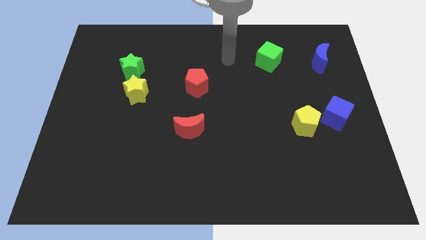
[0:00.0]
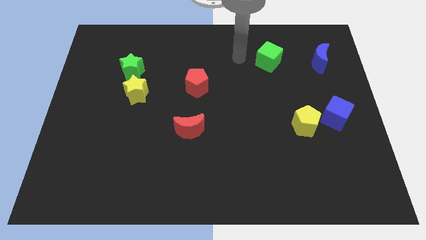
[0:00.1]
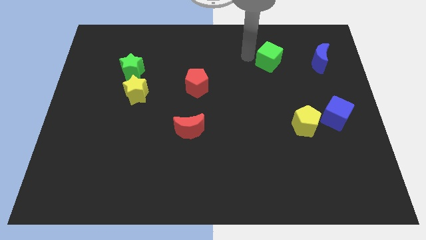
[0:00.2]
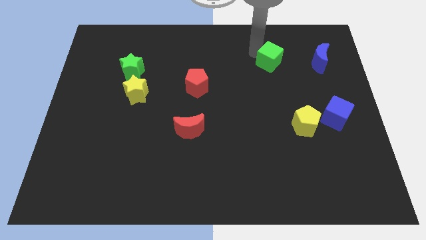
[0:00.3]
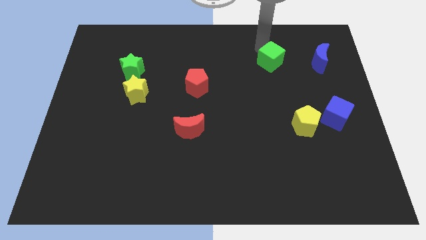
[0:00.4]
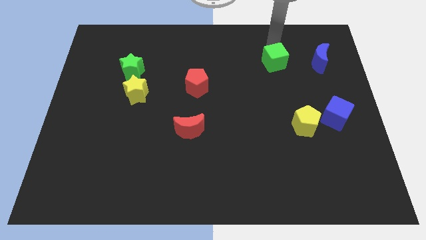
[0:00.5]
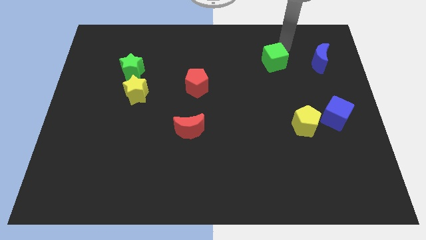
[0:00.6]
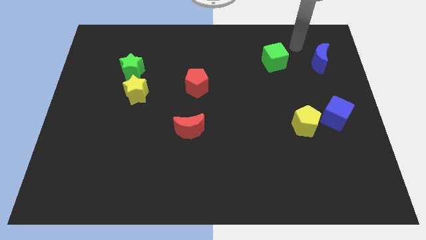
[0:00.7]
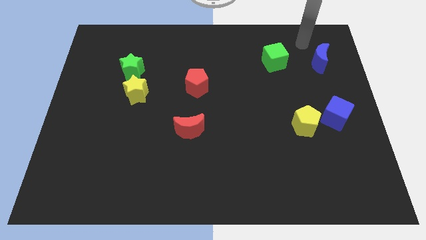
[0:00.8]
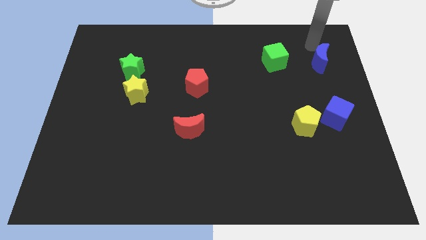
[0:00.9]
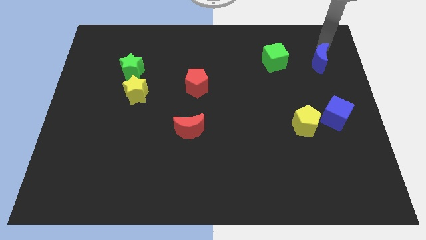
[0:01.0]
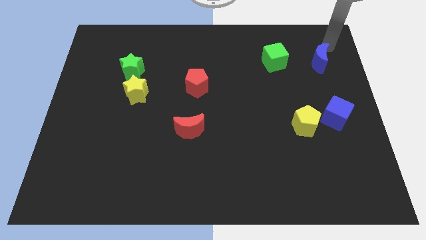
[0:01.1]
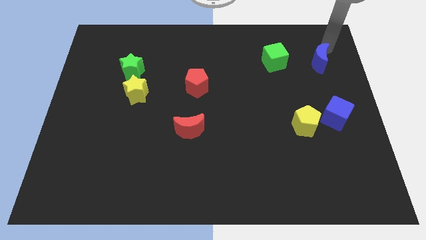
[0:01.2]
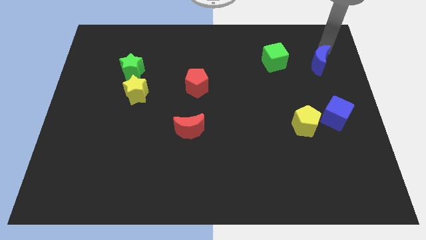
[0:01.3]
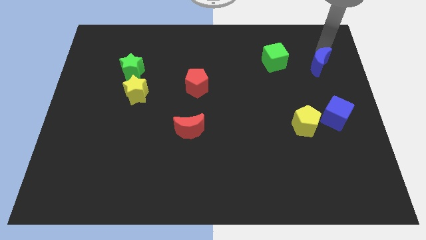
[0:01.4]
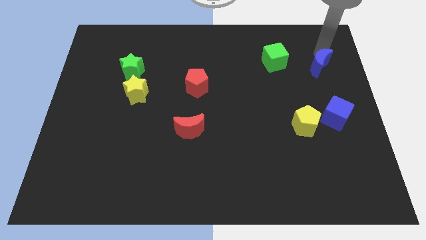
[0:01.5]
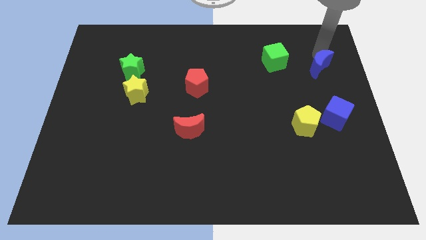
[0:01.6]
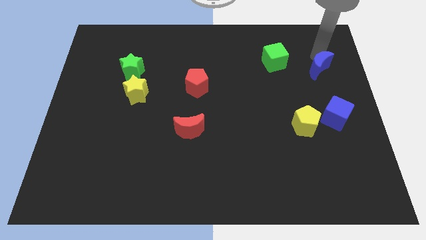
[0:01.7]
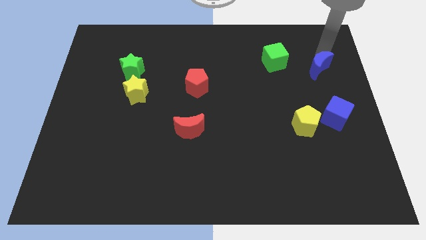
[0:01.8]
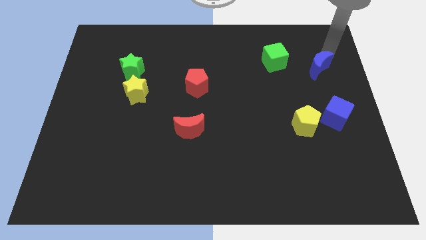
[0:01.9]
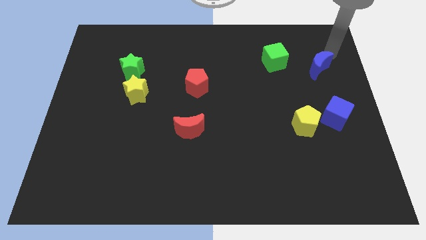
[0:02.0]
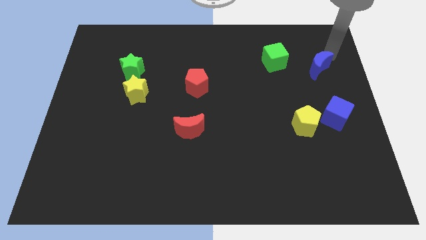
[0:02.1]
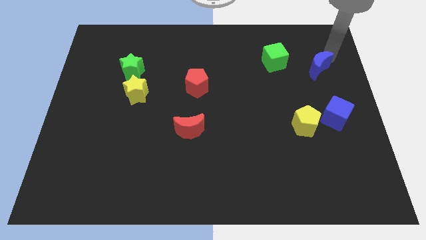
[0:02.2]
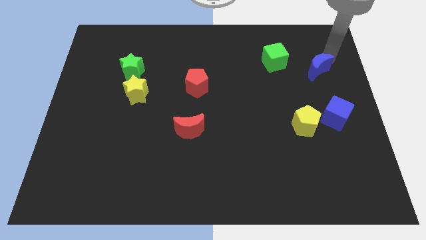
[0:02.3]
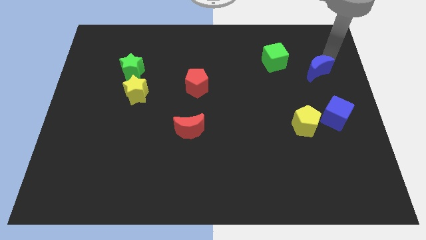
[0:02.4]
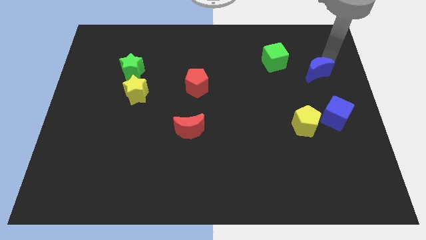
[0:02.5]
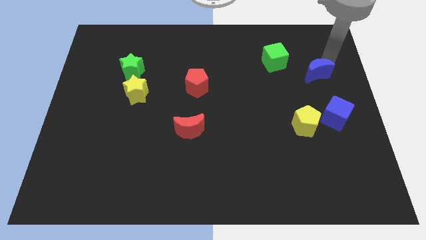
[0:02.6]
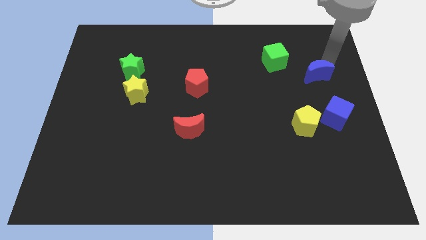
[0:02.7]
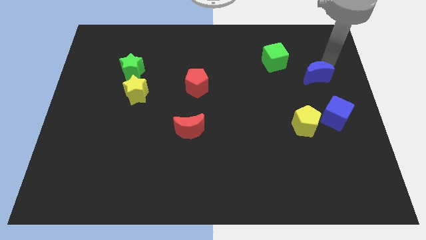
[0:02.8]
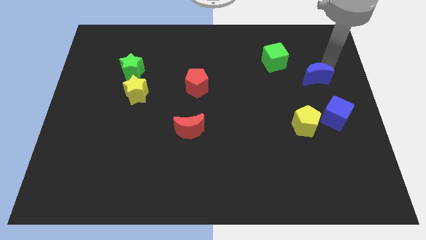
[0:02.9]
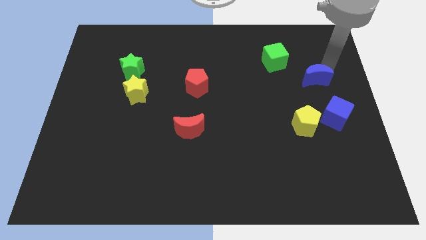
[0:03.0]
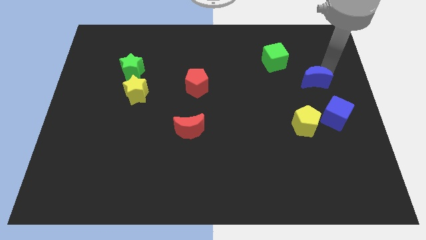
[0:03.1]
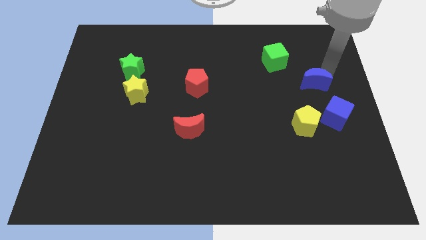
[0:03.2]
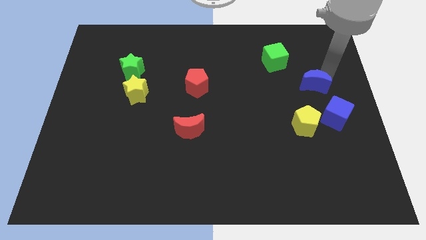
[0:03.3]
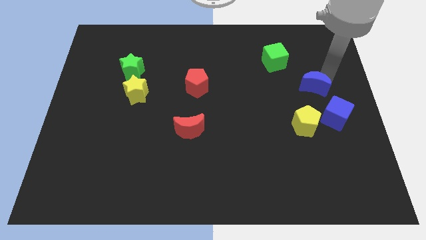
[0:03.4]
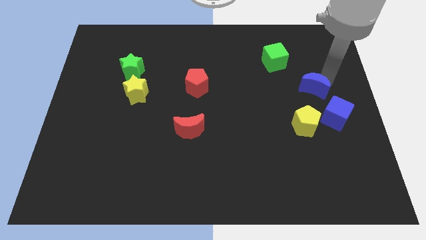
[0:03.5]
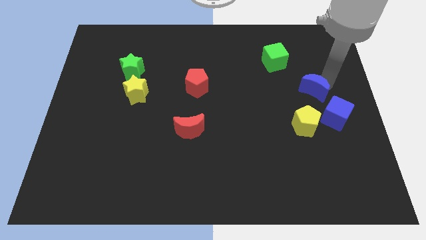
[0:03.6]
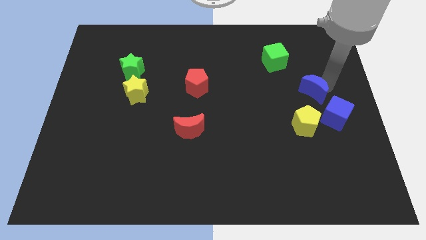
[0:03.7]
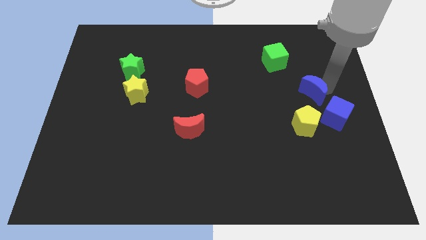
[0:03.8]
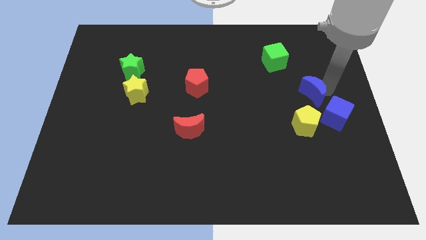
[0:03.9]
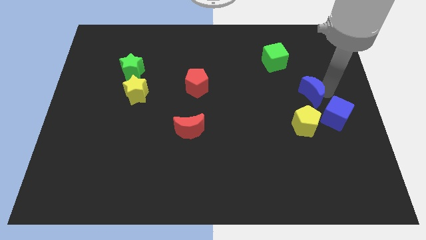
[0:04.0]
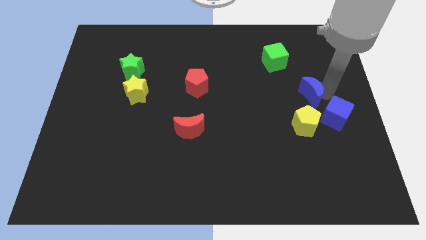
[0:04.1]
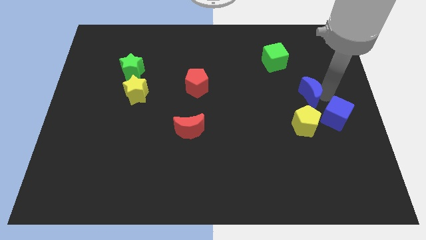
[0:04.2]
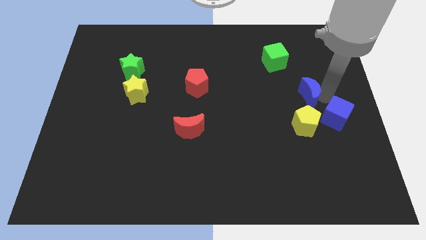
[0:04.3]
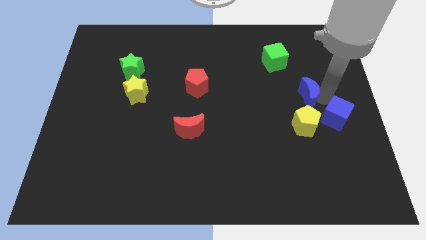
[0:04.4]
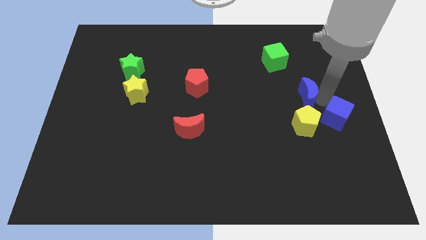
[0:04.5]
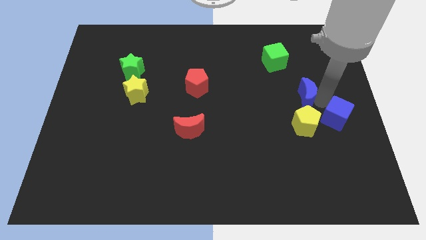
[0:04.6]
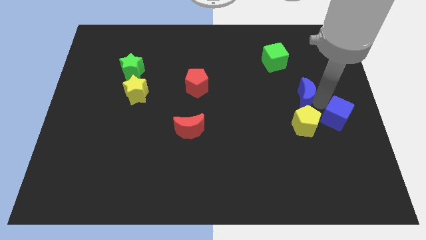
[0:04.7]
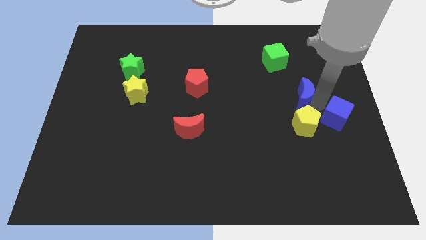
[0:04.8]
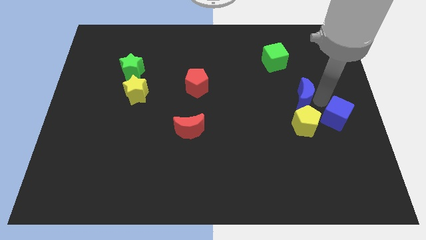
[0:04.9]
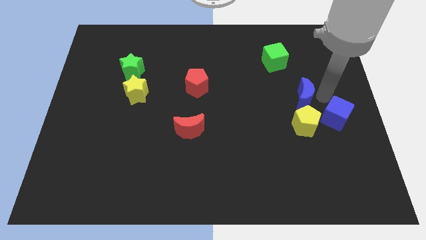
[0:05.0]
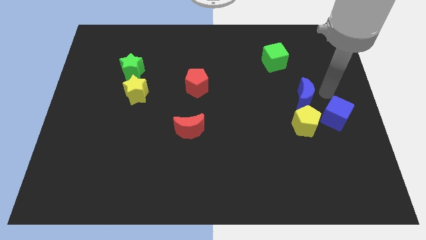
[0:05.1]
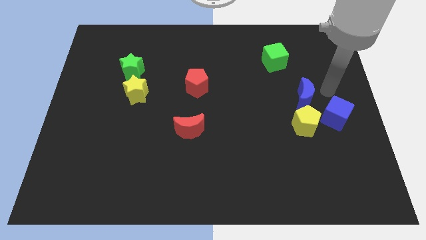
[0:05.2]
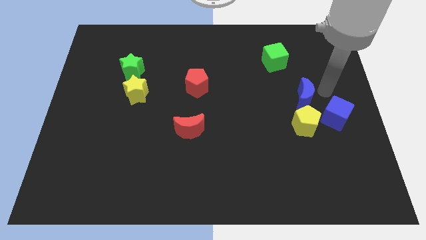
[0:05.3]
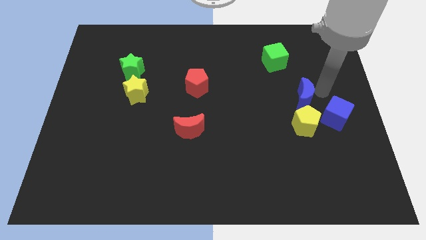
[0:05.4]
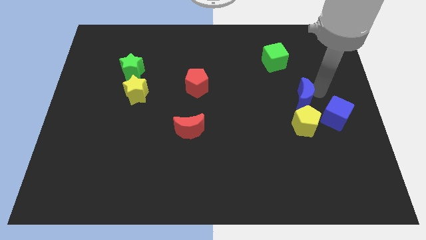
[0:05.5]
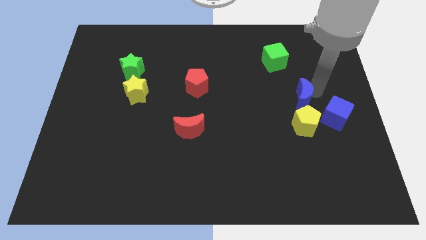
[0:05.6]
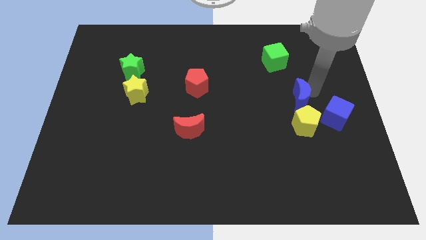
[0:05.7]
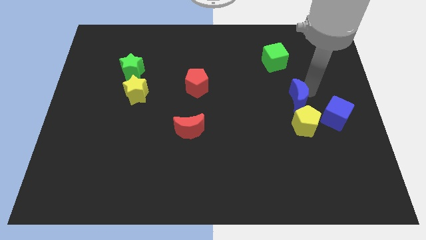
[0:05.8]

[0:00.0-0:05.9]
move the blue moon to the top left of the yellow pentagon

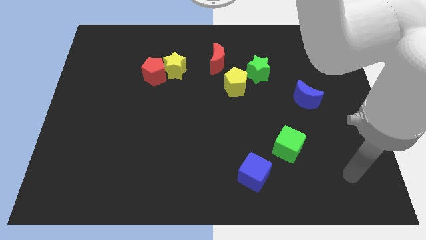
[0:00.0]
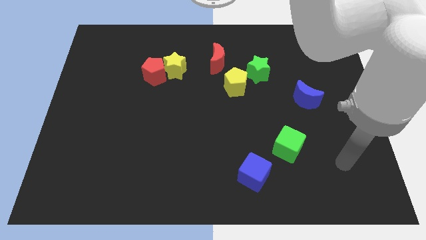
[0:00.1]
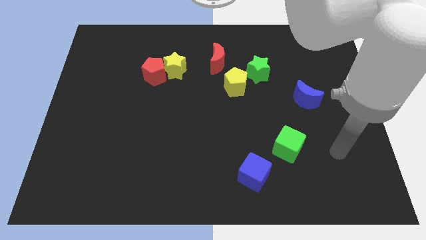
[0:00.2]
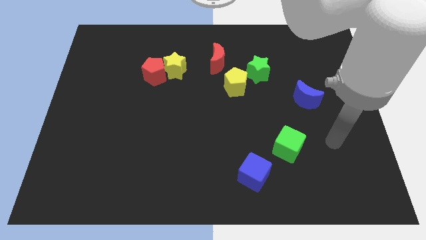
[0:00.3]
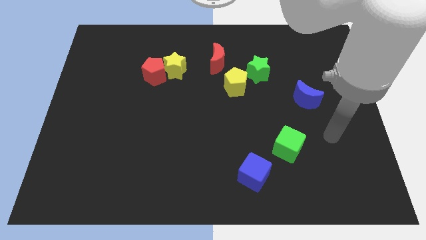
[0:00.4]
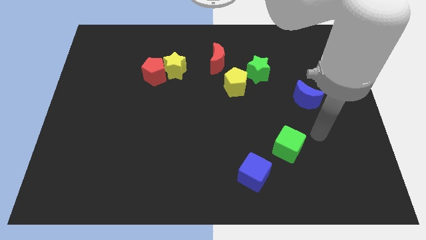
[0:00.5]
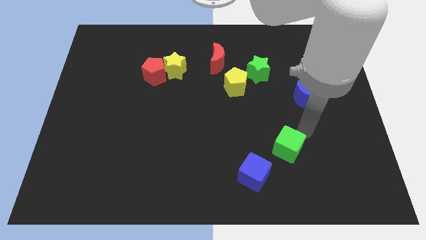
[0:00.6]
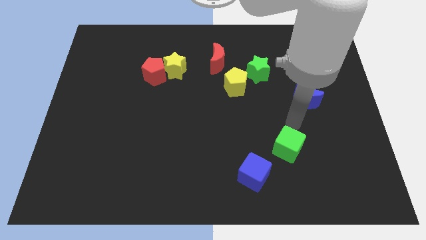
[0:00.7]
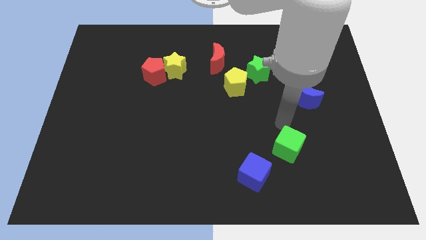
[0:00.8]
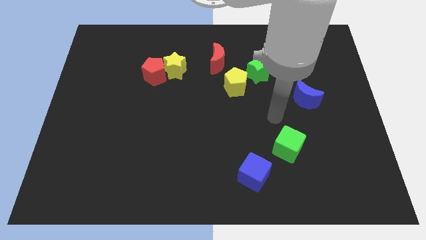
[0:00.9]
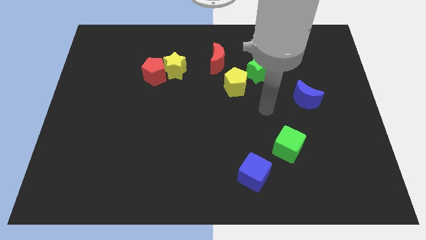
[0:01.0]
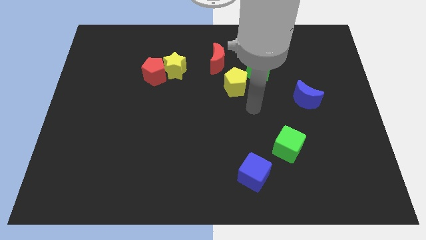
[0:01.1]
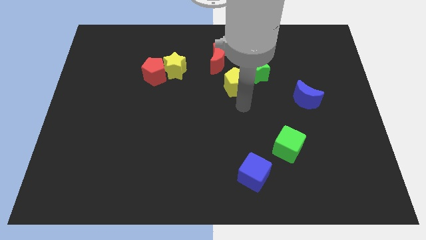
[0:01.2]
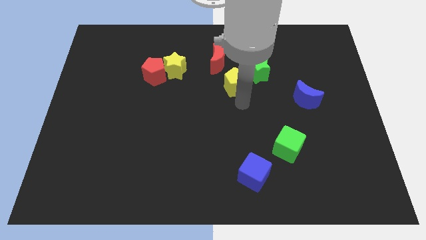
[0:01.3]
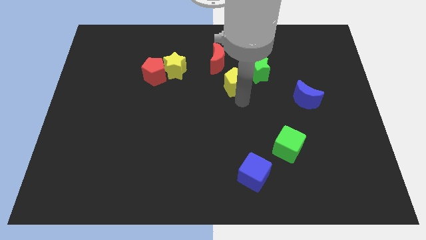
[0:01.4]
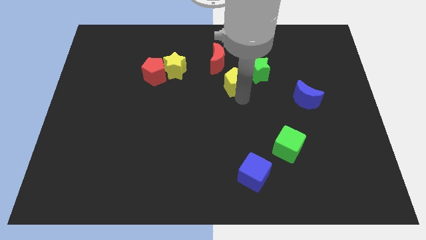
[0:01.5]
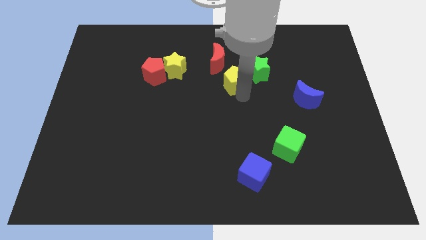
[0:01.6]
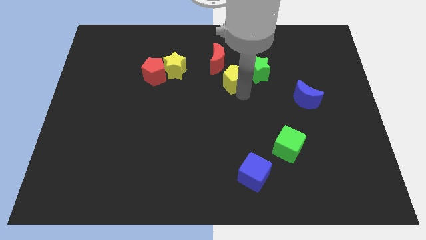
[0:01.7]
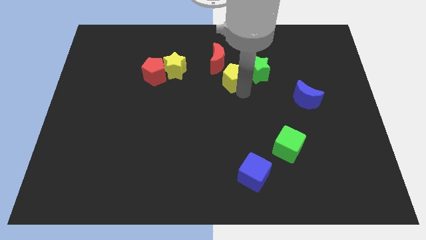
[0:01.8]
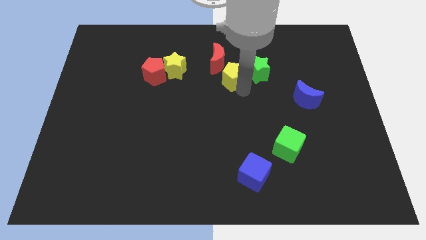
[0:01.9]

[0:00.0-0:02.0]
slide the yellow pentagon to the right side of the yellow star

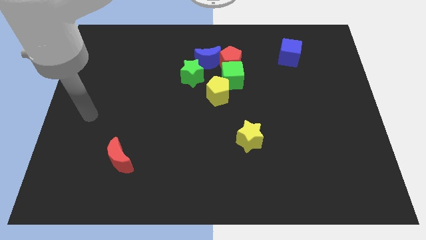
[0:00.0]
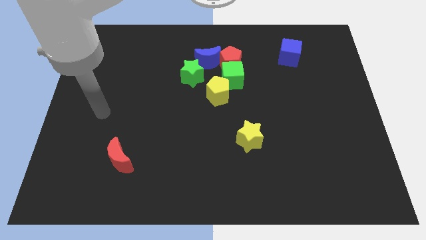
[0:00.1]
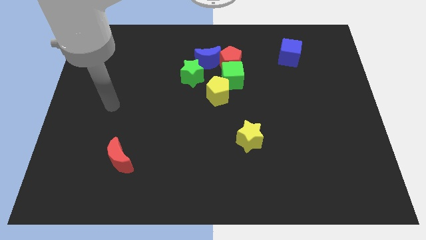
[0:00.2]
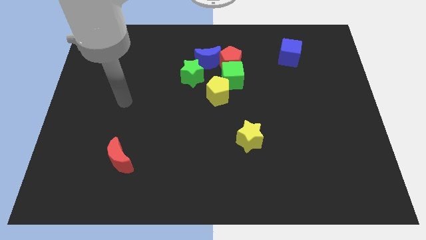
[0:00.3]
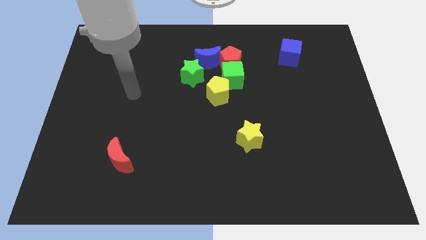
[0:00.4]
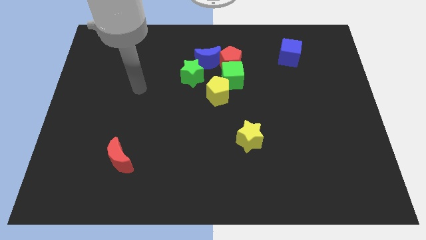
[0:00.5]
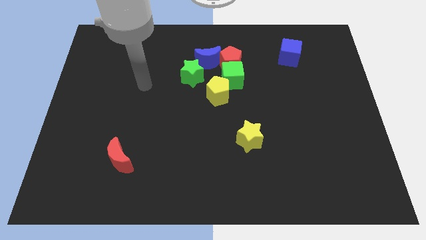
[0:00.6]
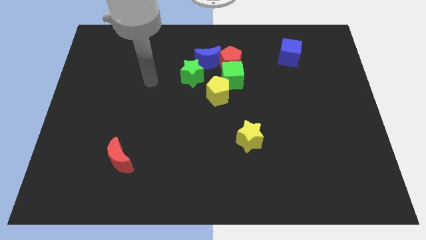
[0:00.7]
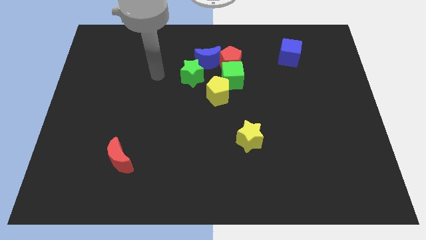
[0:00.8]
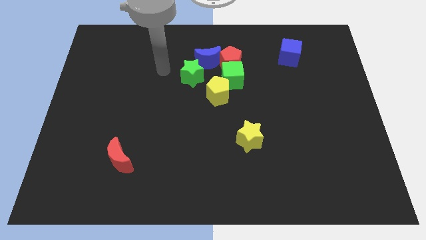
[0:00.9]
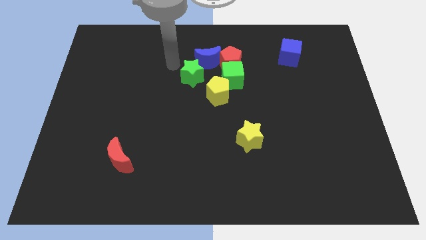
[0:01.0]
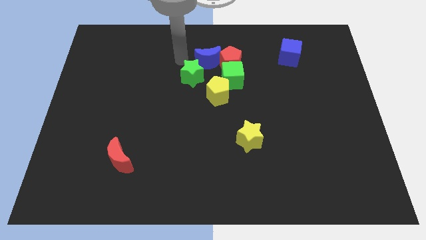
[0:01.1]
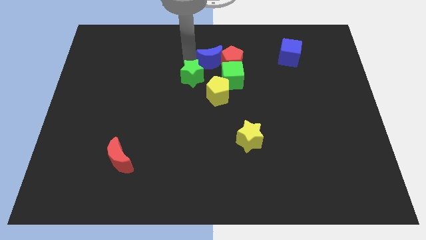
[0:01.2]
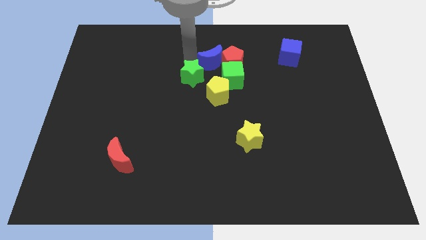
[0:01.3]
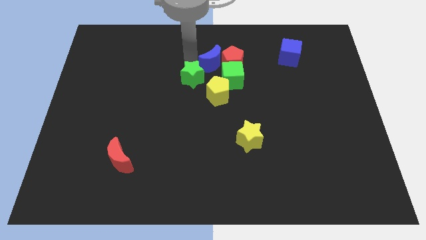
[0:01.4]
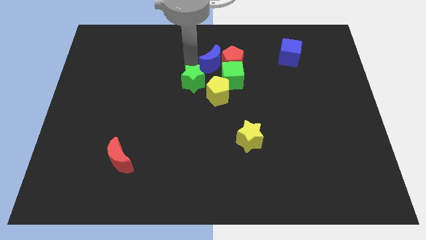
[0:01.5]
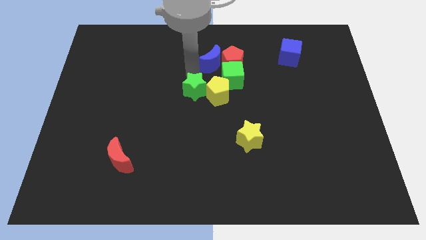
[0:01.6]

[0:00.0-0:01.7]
put the green star diagonally down and to the left of the yellow pentagon
